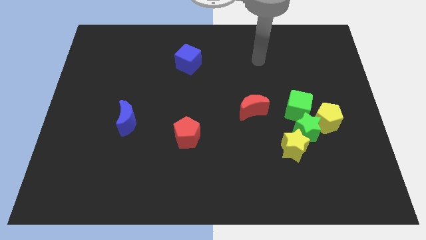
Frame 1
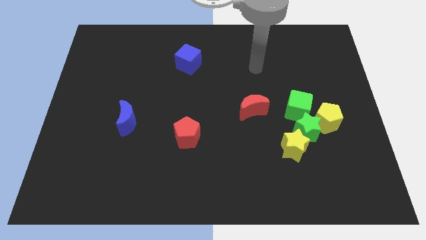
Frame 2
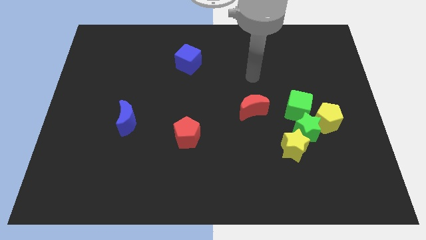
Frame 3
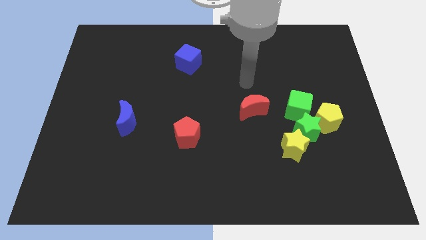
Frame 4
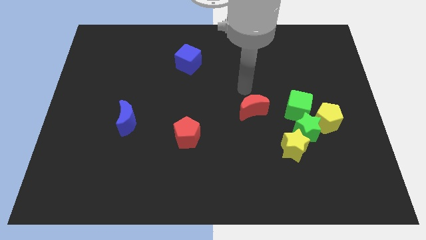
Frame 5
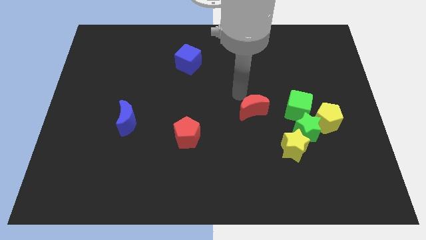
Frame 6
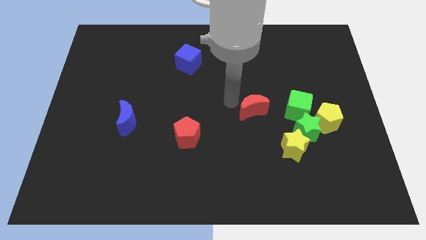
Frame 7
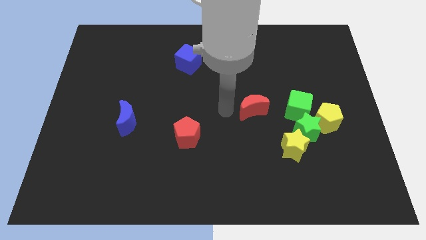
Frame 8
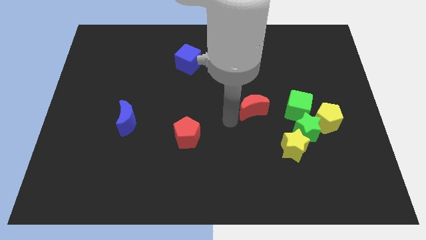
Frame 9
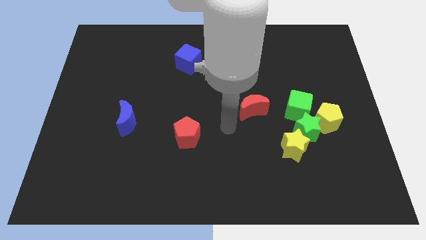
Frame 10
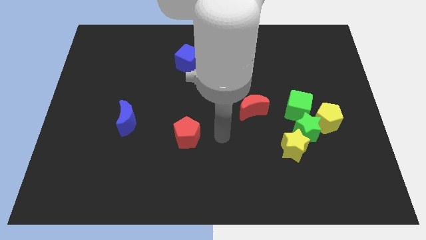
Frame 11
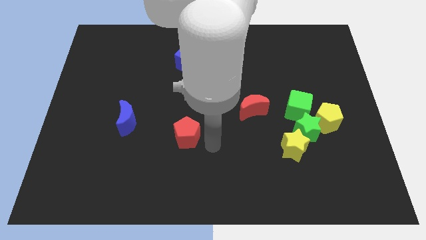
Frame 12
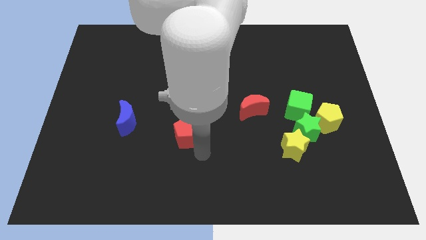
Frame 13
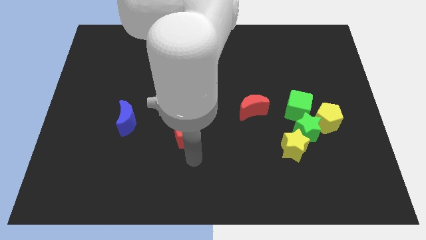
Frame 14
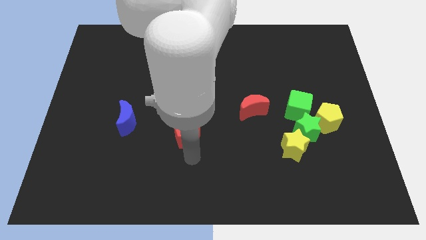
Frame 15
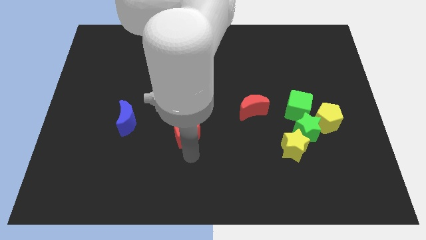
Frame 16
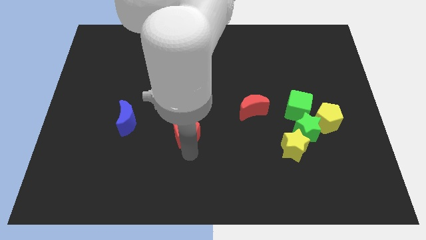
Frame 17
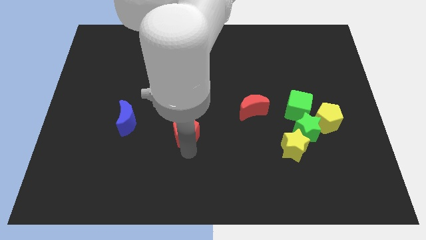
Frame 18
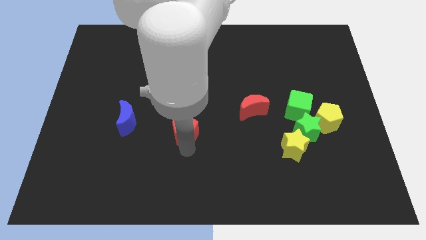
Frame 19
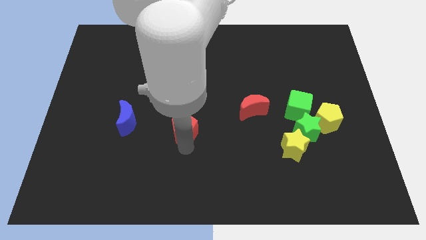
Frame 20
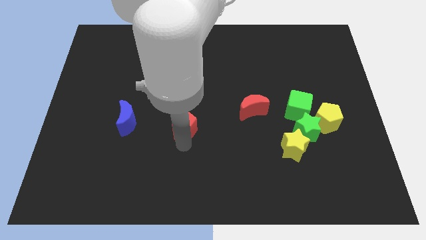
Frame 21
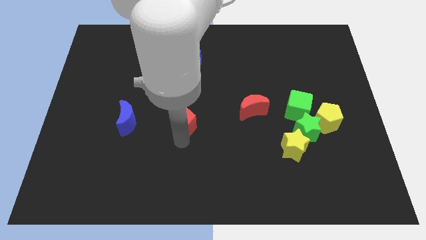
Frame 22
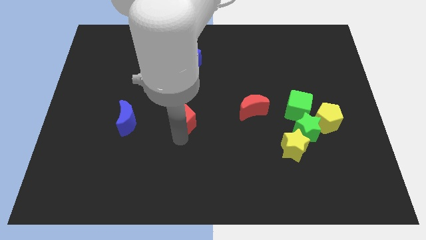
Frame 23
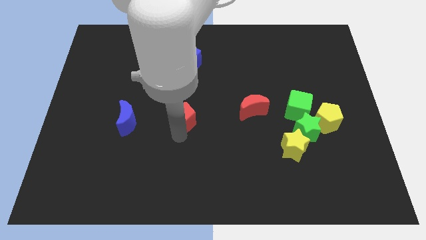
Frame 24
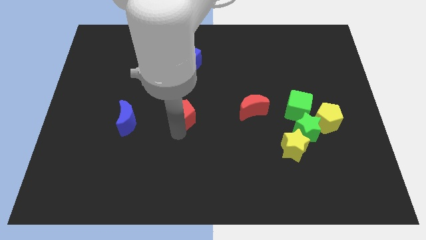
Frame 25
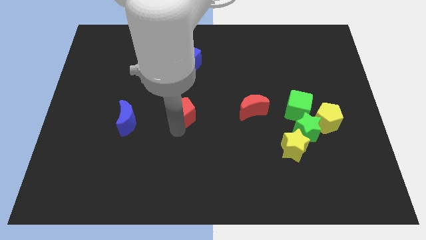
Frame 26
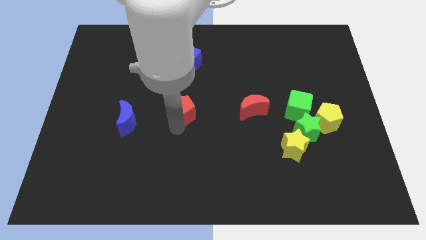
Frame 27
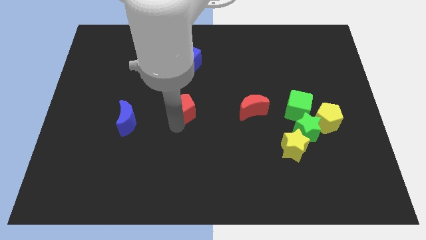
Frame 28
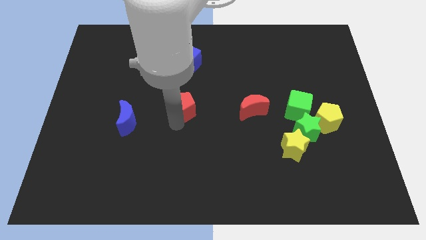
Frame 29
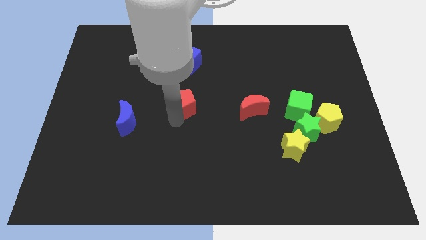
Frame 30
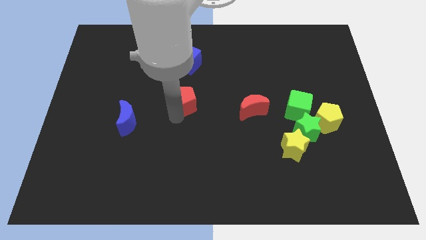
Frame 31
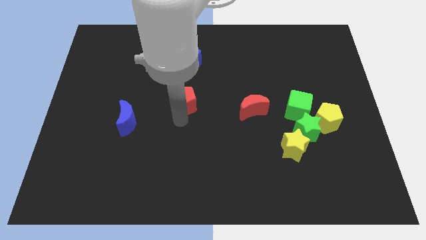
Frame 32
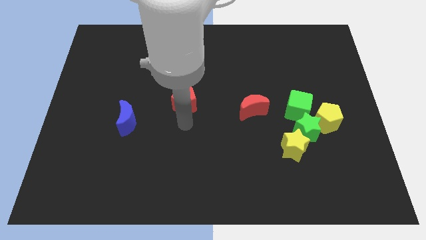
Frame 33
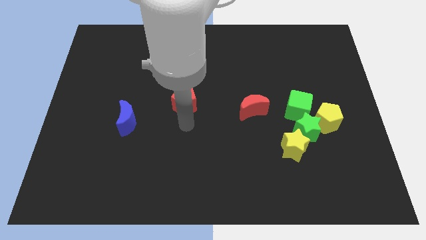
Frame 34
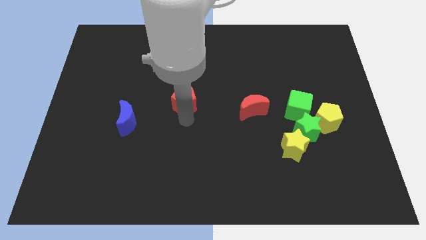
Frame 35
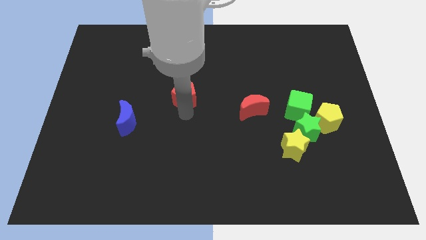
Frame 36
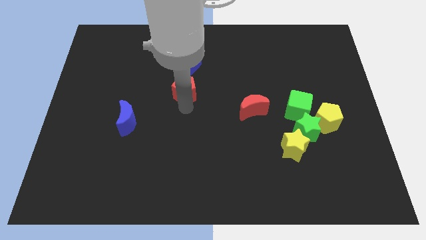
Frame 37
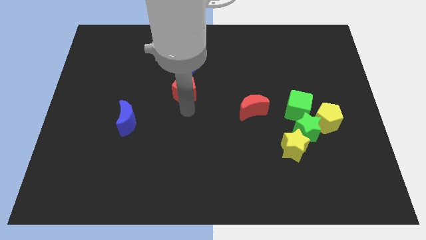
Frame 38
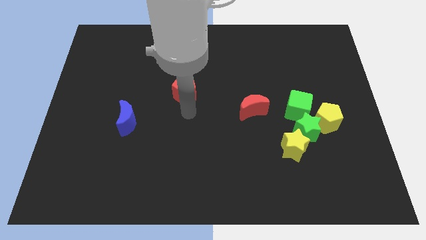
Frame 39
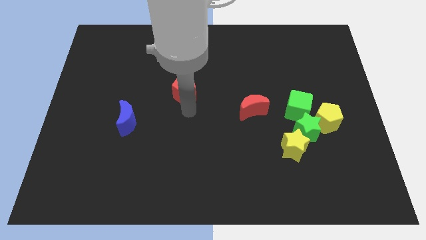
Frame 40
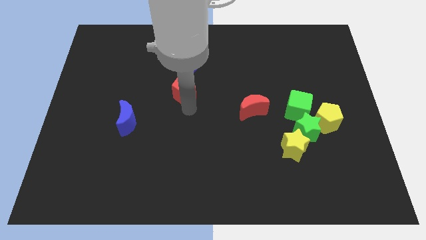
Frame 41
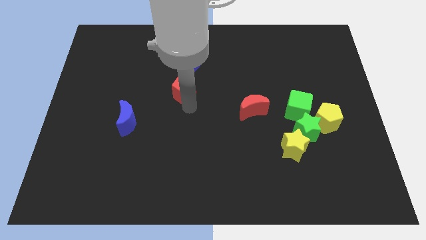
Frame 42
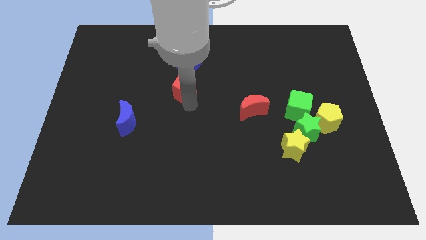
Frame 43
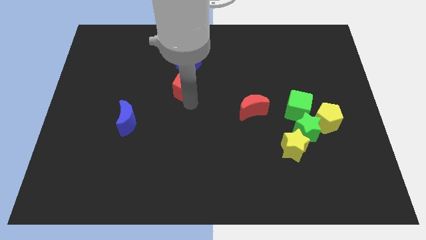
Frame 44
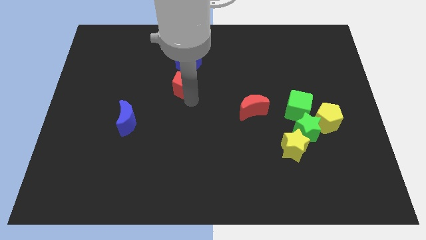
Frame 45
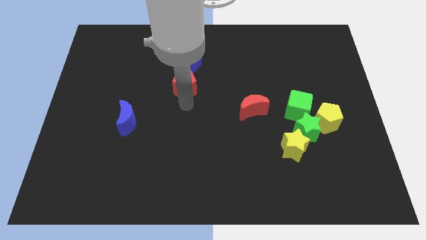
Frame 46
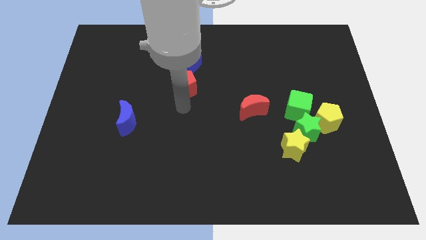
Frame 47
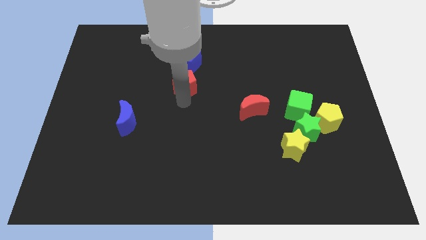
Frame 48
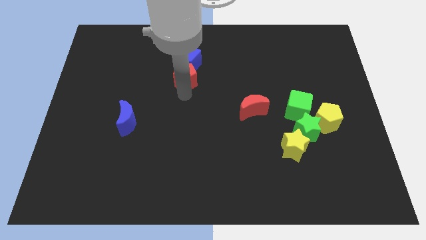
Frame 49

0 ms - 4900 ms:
put the red pentagon next to the blue cube

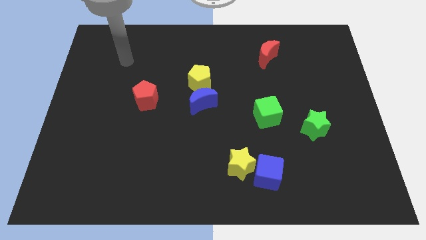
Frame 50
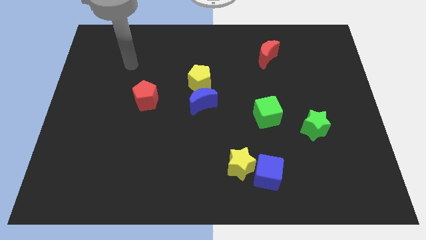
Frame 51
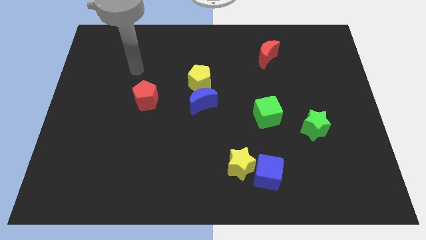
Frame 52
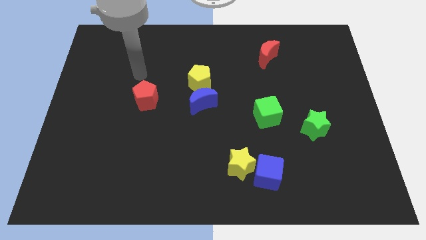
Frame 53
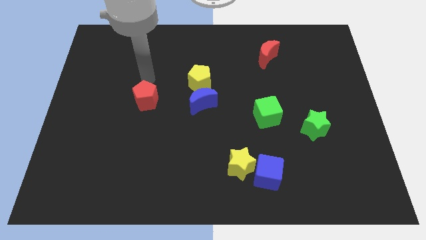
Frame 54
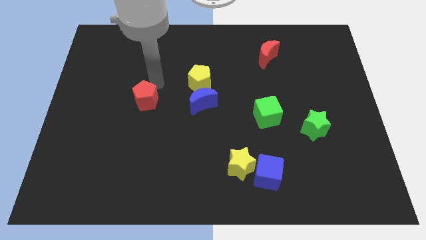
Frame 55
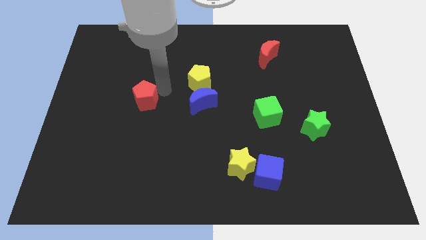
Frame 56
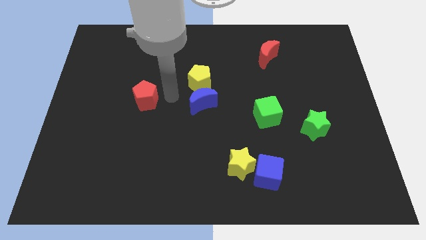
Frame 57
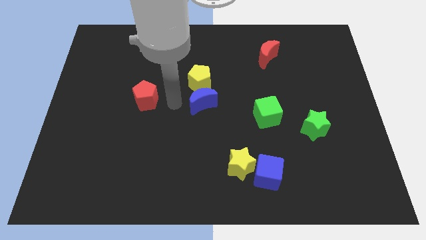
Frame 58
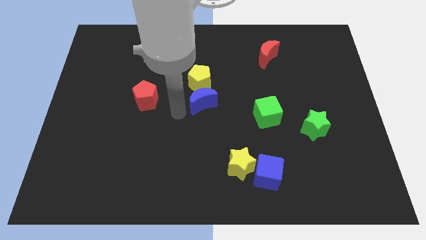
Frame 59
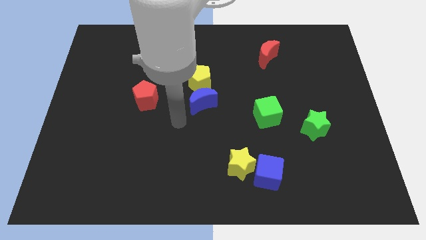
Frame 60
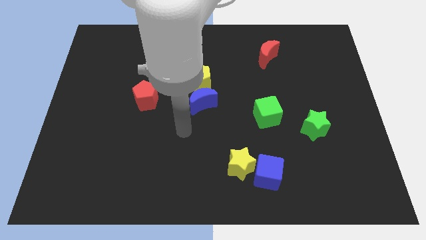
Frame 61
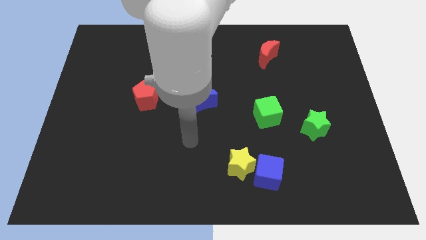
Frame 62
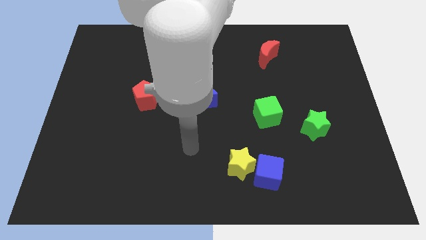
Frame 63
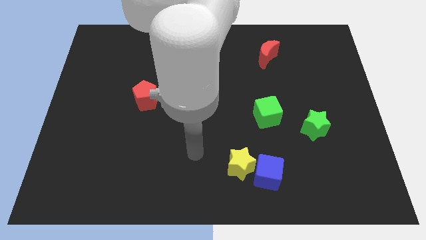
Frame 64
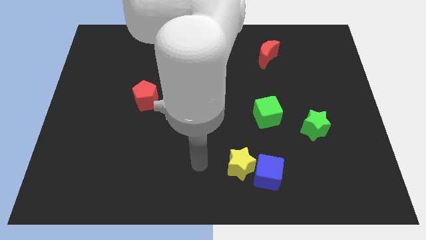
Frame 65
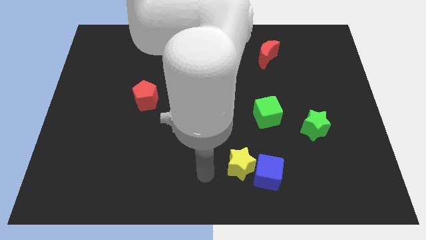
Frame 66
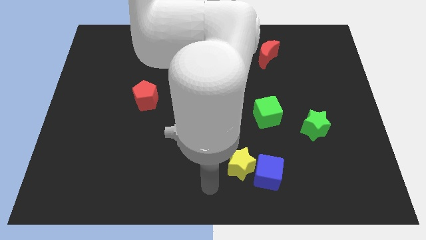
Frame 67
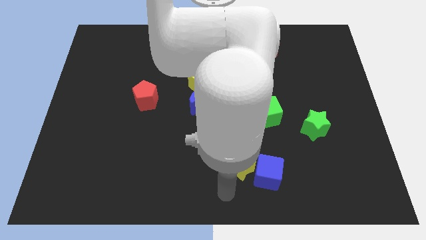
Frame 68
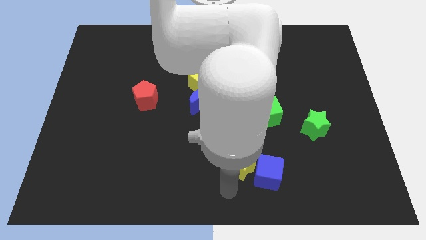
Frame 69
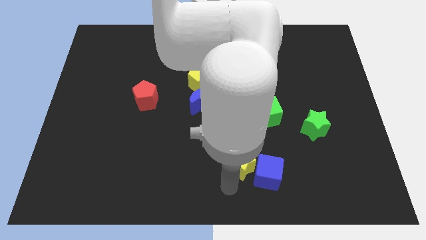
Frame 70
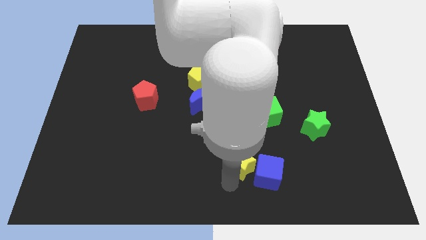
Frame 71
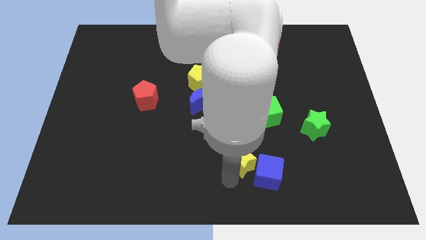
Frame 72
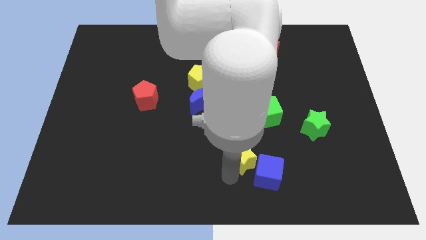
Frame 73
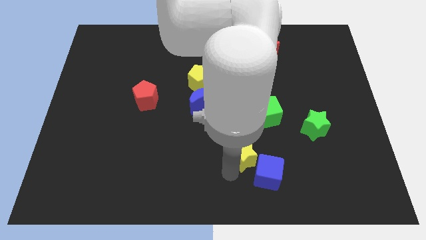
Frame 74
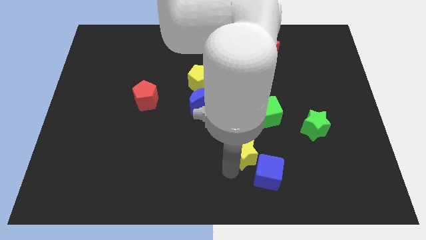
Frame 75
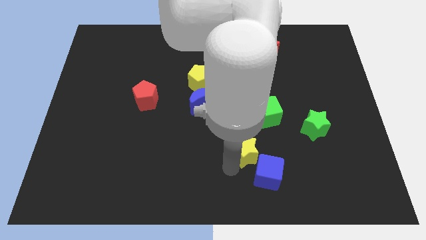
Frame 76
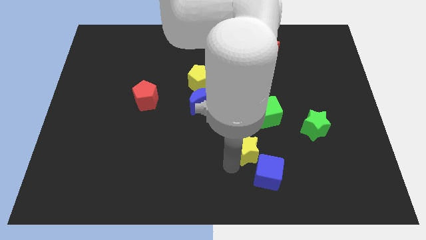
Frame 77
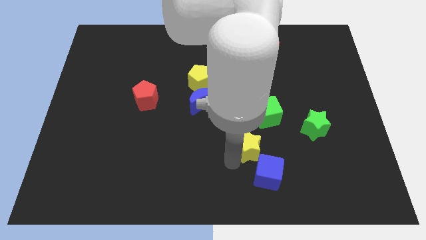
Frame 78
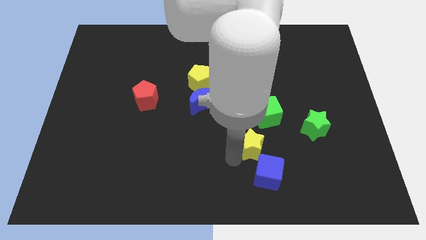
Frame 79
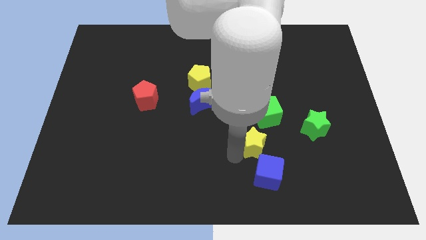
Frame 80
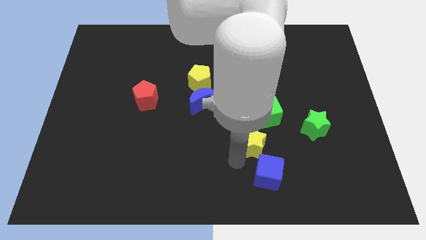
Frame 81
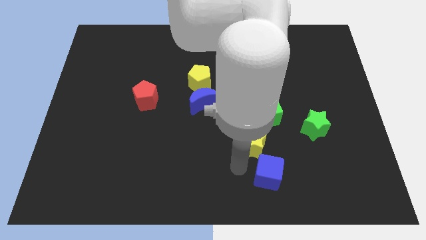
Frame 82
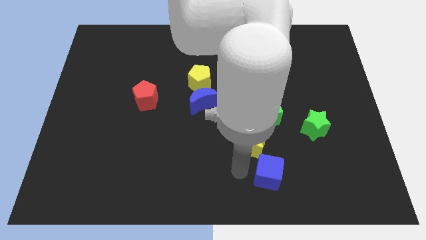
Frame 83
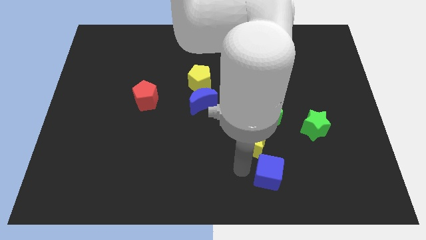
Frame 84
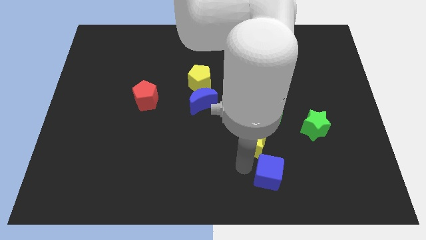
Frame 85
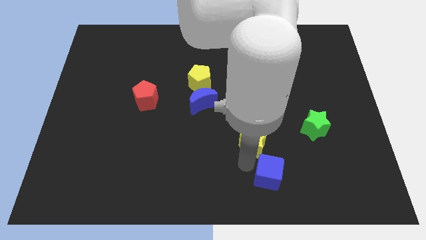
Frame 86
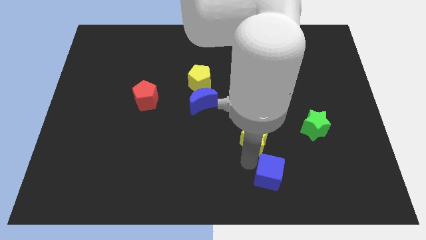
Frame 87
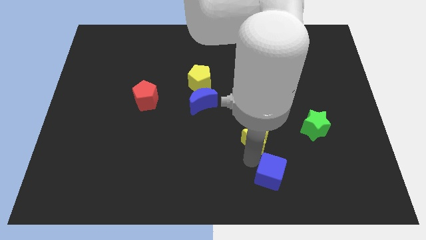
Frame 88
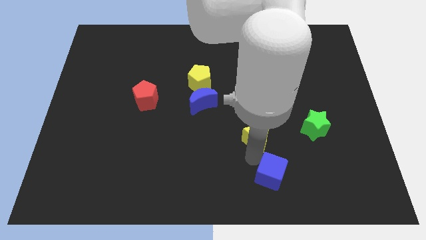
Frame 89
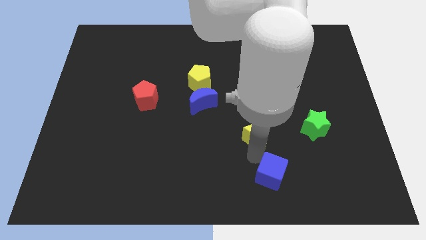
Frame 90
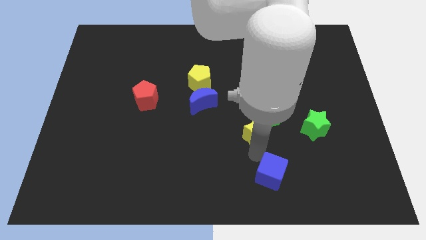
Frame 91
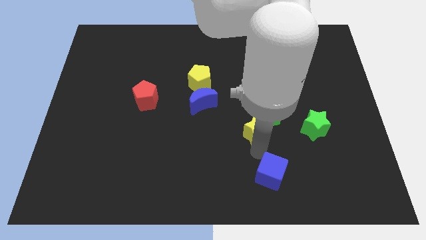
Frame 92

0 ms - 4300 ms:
slide the yellow star next to the green cube
